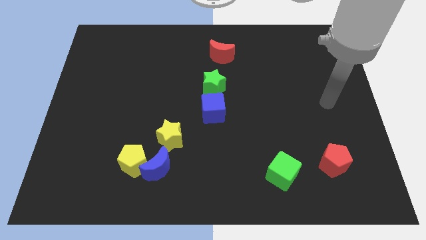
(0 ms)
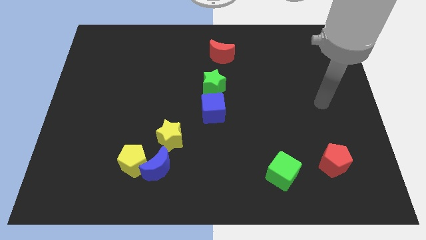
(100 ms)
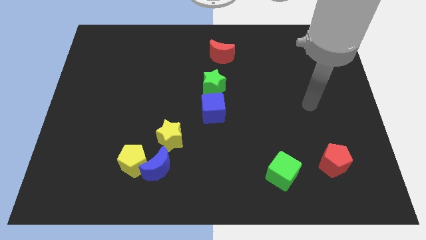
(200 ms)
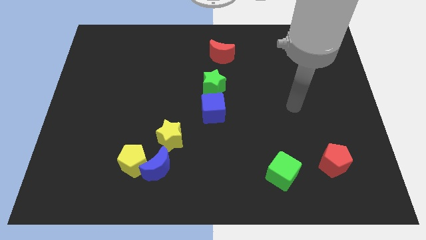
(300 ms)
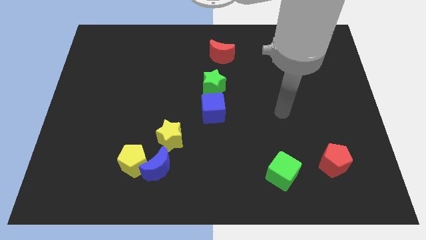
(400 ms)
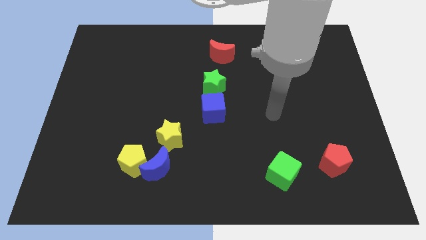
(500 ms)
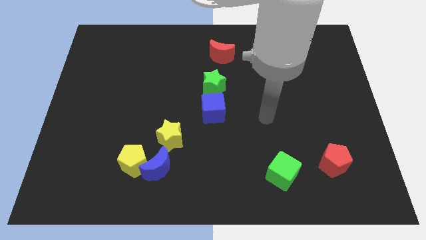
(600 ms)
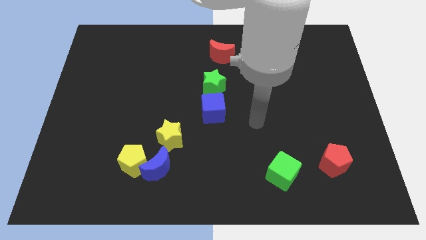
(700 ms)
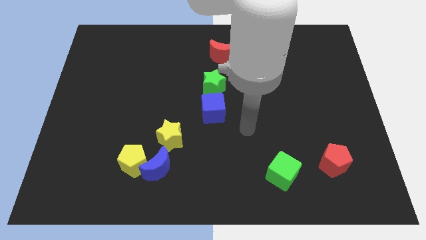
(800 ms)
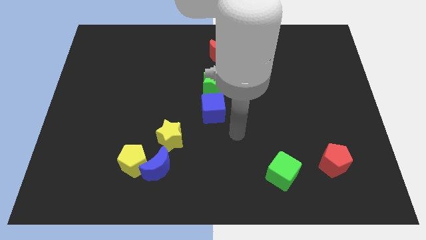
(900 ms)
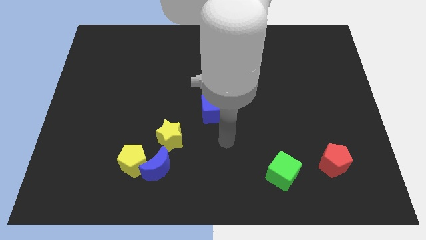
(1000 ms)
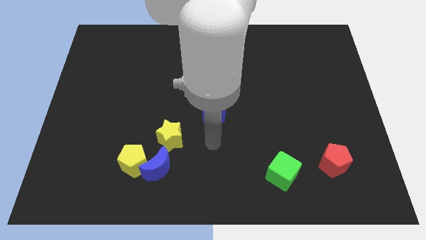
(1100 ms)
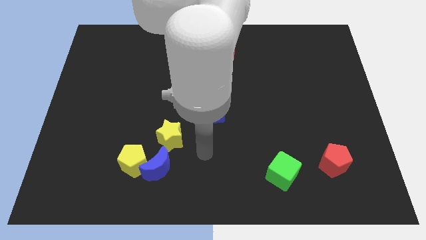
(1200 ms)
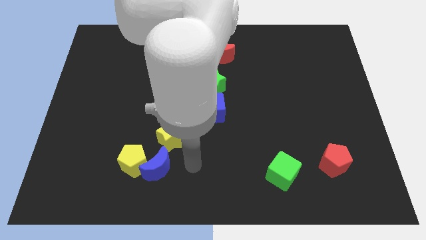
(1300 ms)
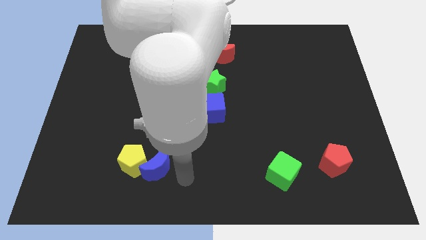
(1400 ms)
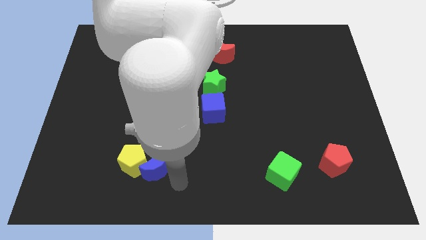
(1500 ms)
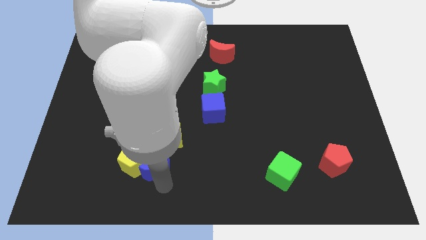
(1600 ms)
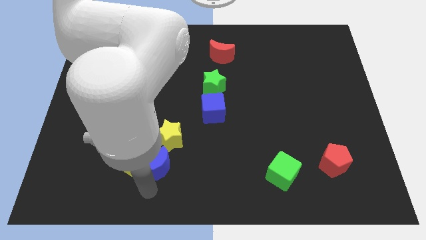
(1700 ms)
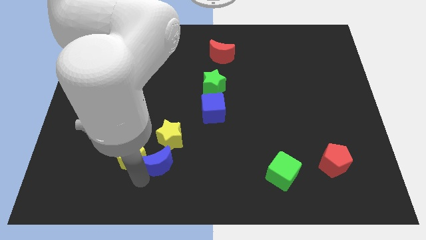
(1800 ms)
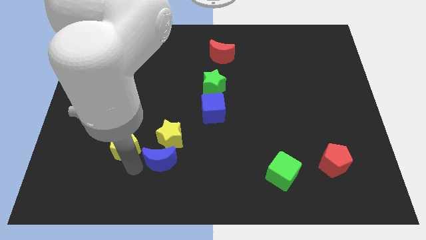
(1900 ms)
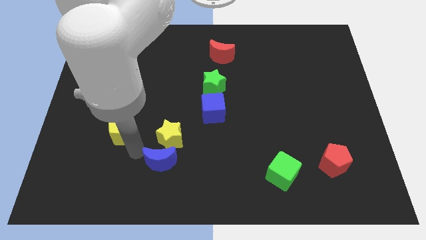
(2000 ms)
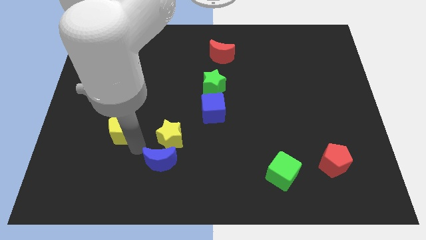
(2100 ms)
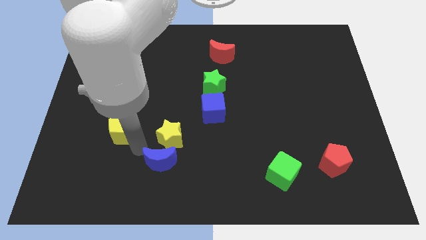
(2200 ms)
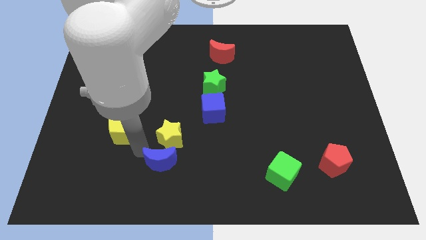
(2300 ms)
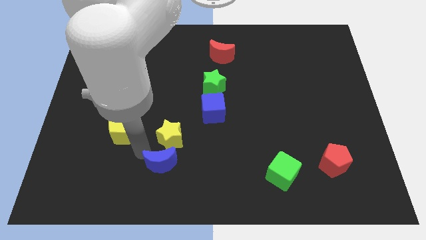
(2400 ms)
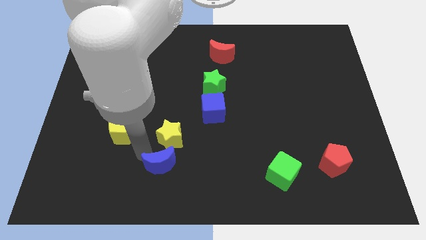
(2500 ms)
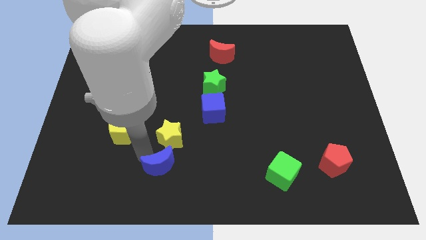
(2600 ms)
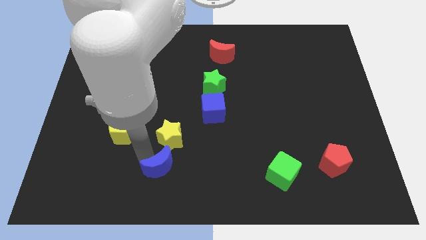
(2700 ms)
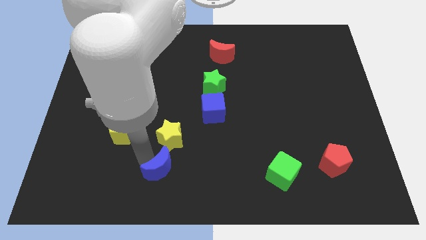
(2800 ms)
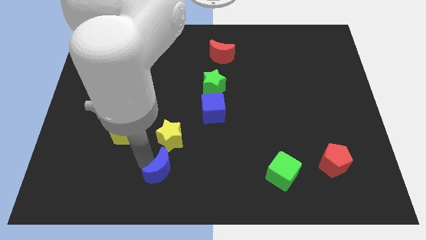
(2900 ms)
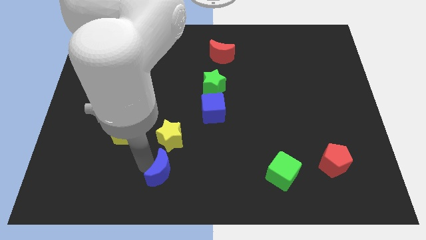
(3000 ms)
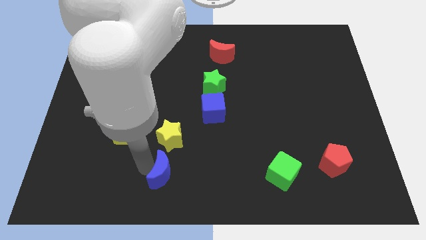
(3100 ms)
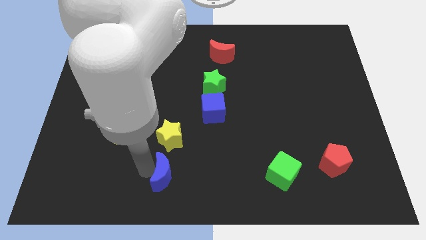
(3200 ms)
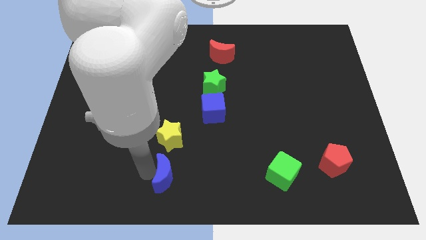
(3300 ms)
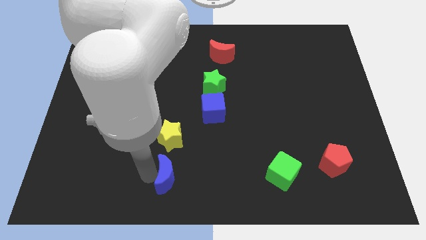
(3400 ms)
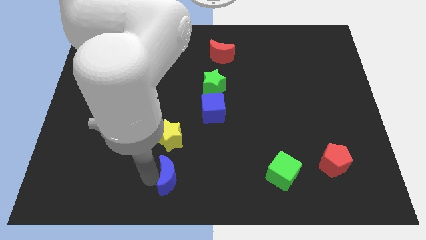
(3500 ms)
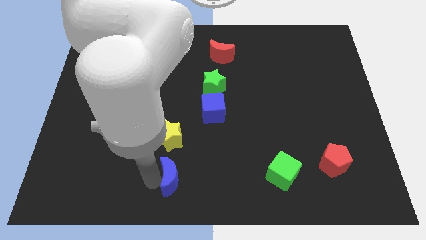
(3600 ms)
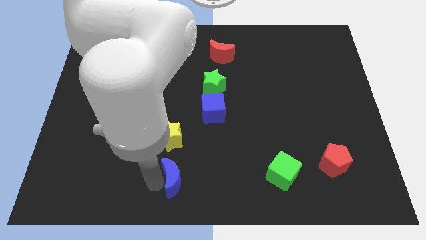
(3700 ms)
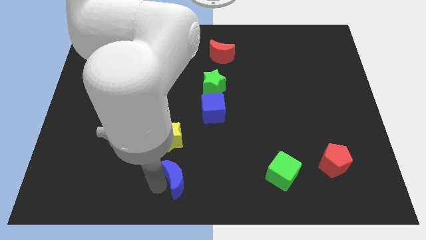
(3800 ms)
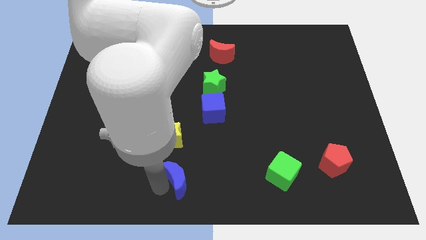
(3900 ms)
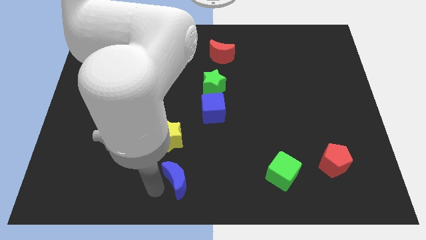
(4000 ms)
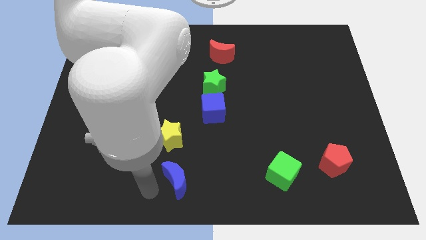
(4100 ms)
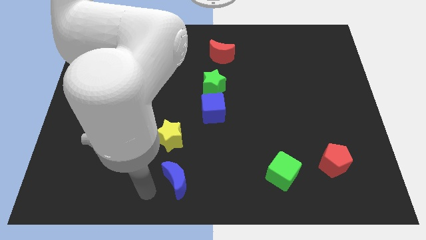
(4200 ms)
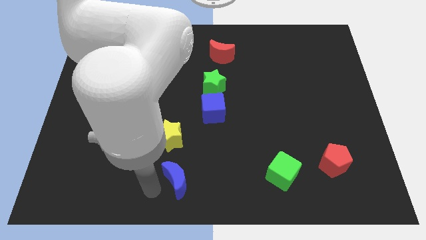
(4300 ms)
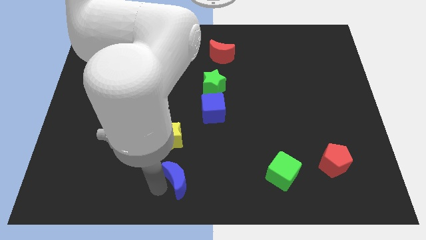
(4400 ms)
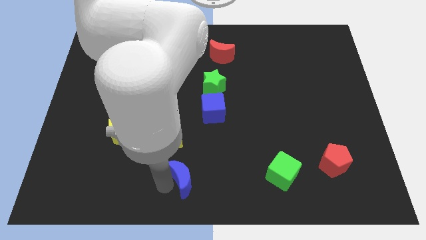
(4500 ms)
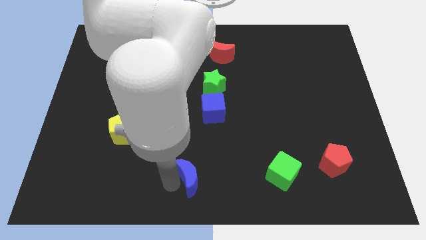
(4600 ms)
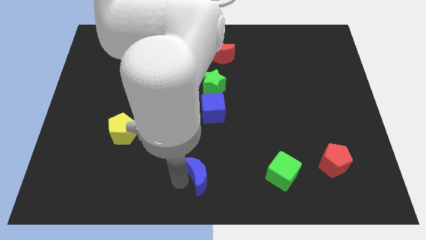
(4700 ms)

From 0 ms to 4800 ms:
slightly slide the blue moon to the right

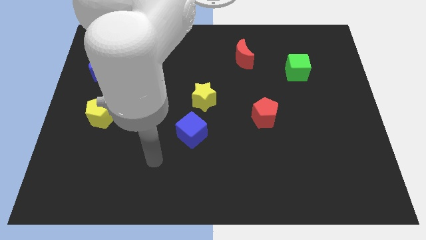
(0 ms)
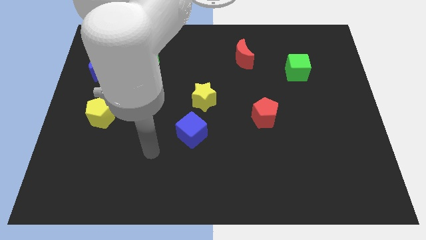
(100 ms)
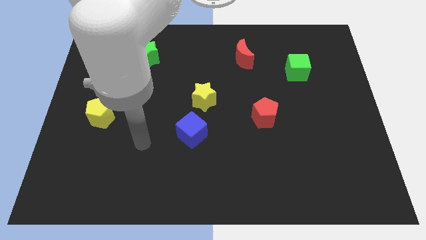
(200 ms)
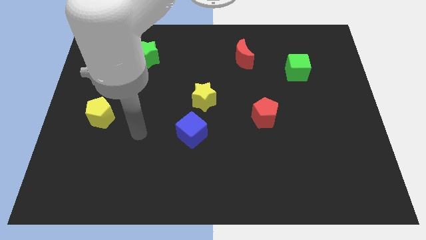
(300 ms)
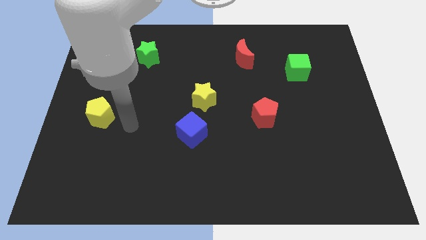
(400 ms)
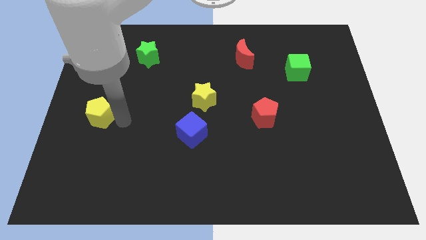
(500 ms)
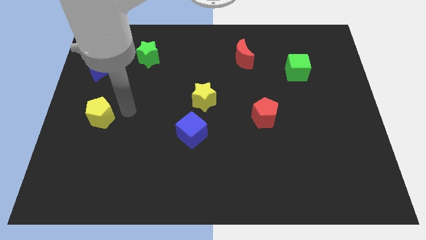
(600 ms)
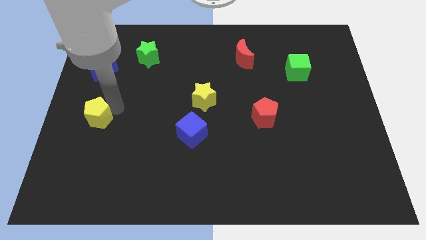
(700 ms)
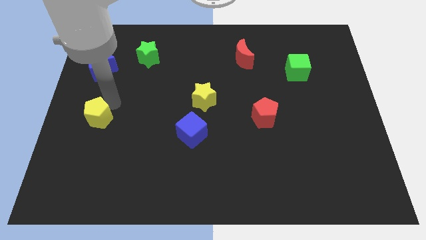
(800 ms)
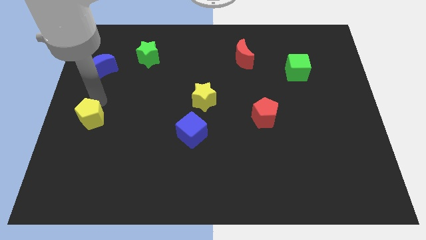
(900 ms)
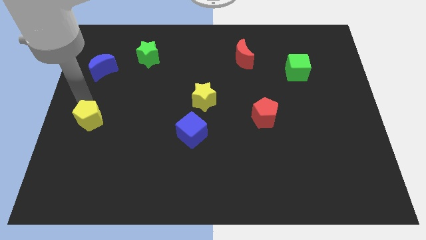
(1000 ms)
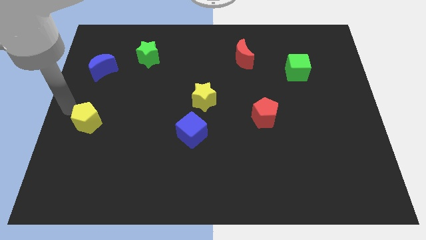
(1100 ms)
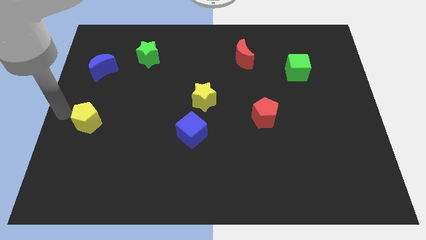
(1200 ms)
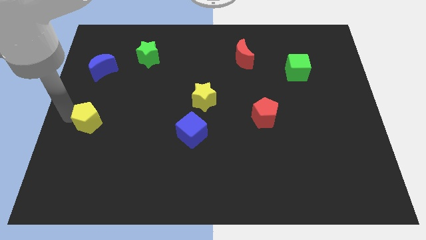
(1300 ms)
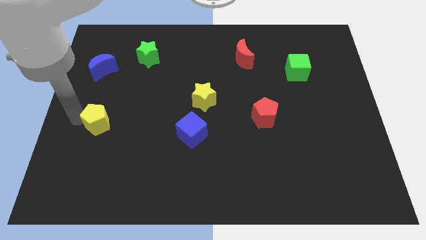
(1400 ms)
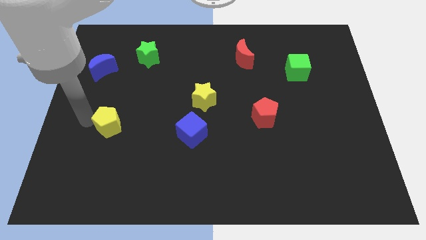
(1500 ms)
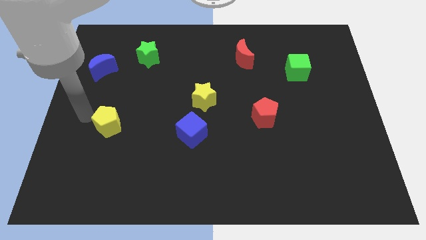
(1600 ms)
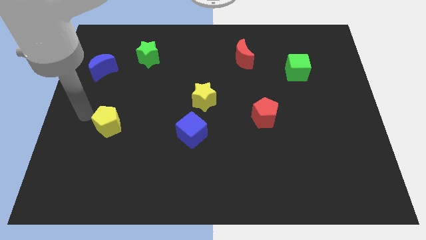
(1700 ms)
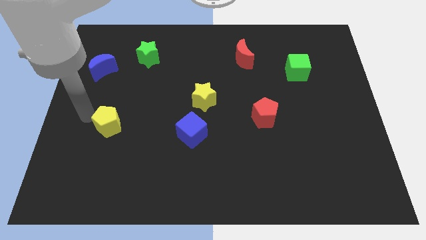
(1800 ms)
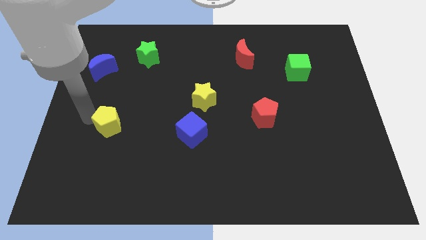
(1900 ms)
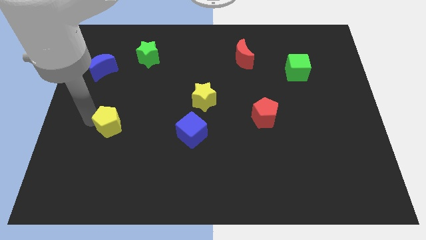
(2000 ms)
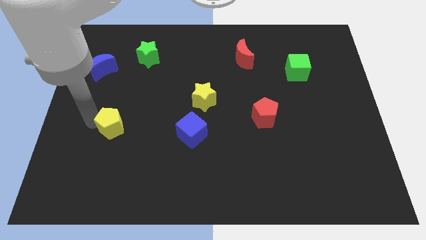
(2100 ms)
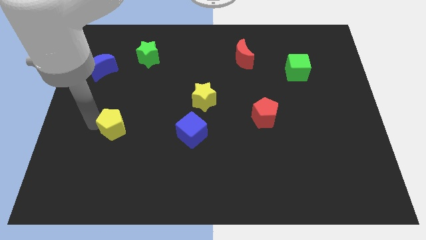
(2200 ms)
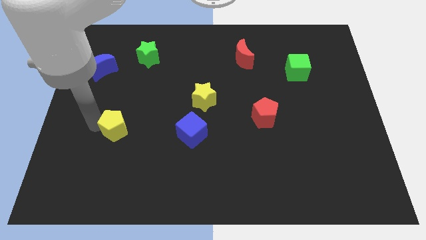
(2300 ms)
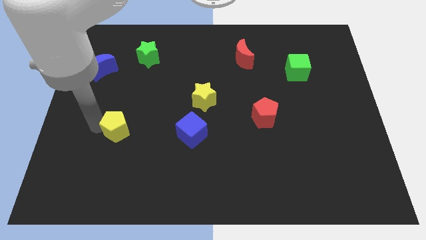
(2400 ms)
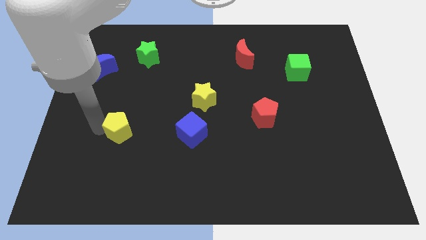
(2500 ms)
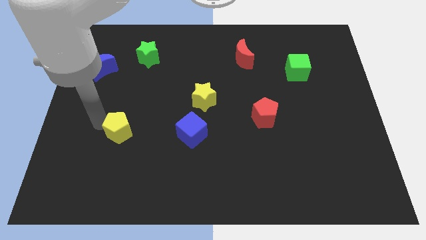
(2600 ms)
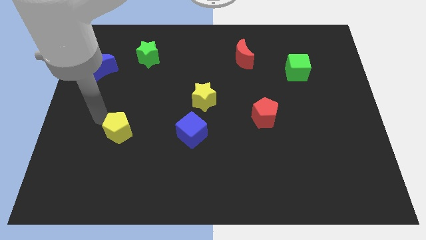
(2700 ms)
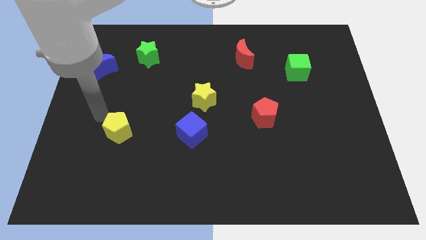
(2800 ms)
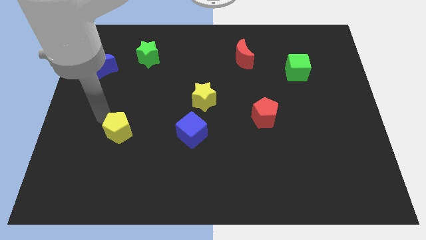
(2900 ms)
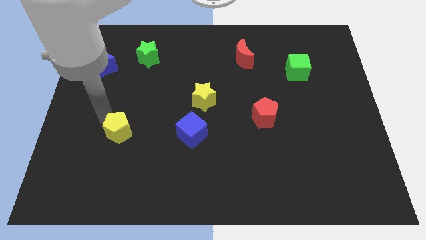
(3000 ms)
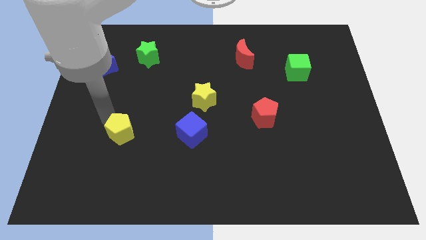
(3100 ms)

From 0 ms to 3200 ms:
slightly push the yellow pentagon down and to the right diagonally
